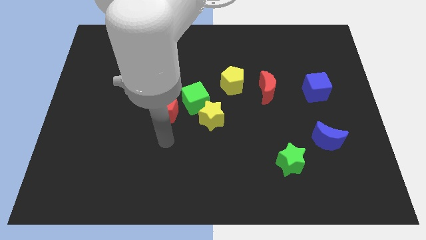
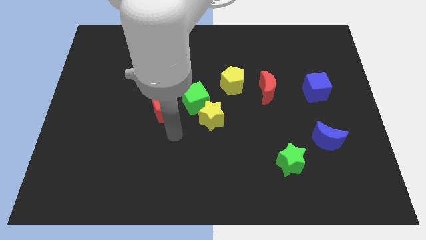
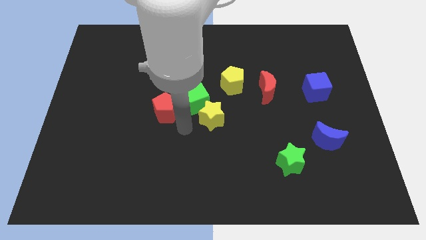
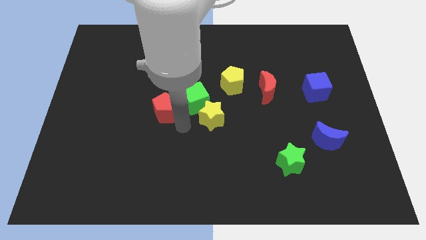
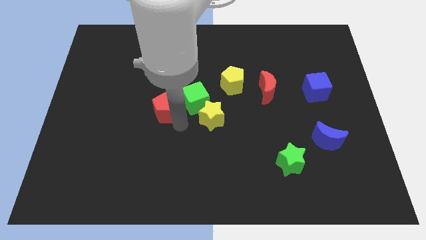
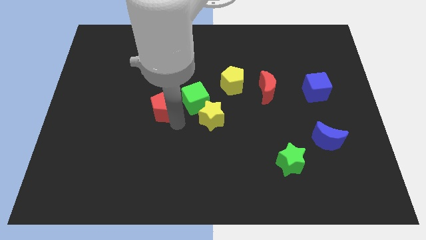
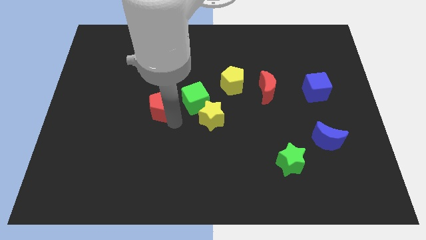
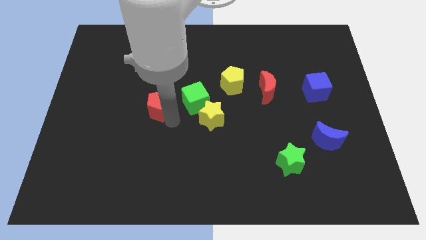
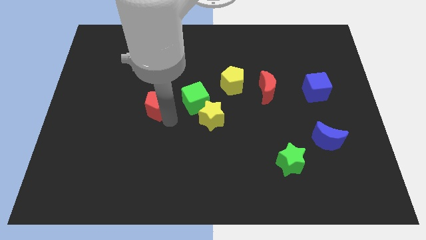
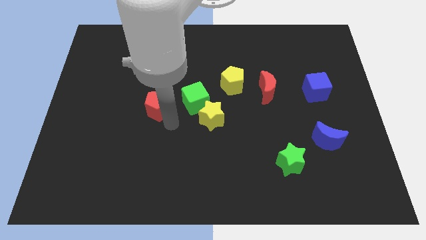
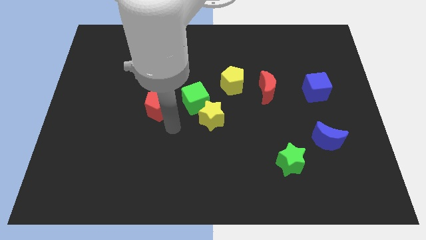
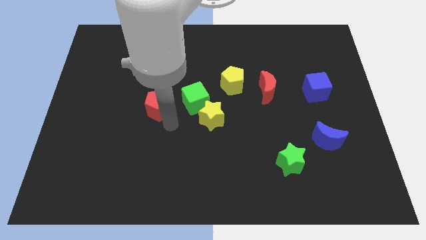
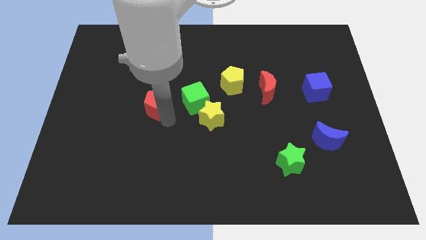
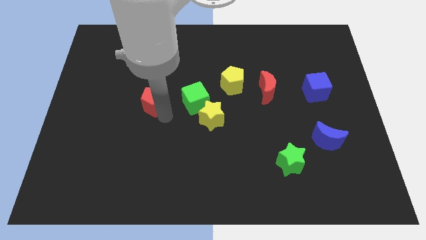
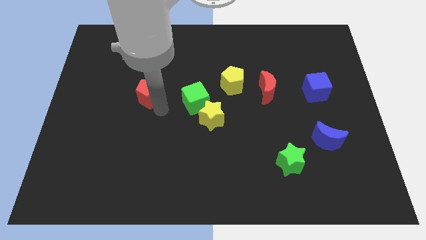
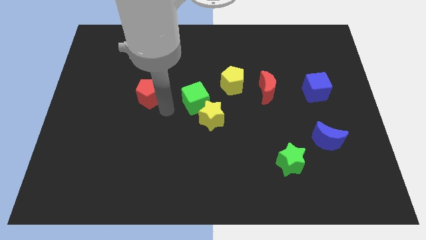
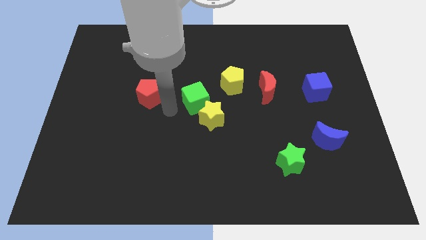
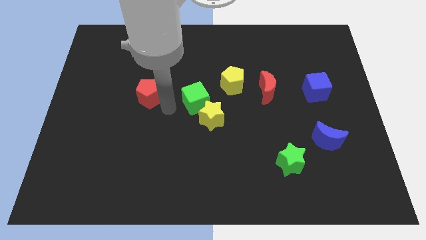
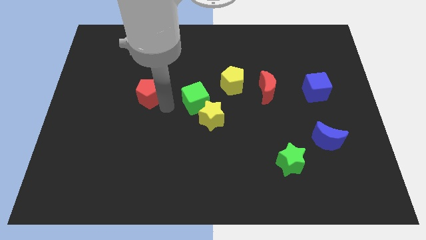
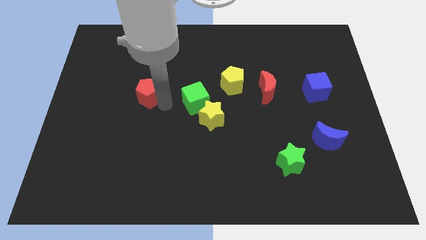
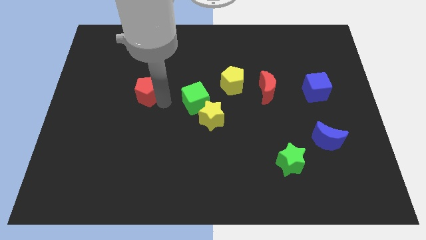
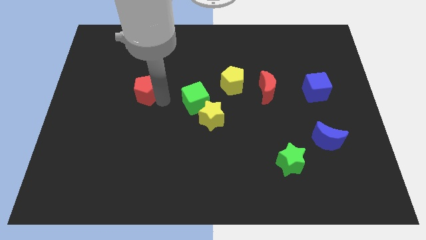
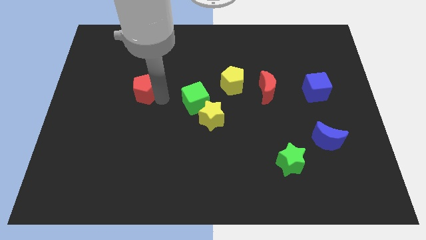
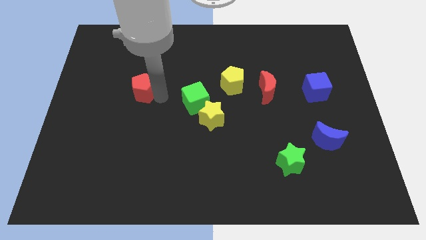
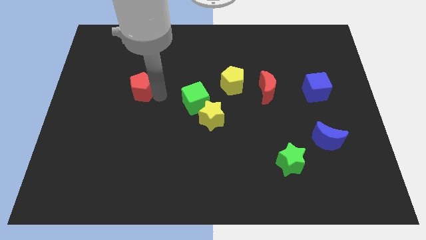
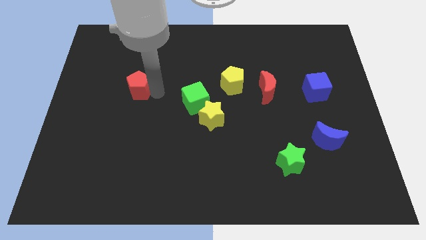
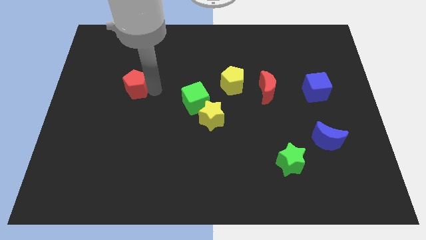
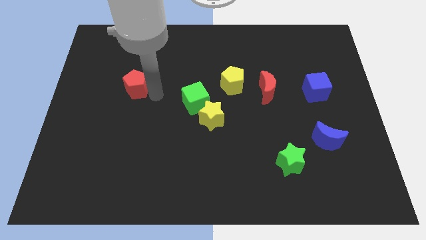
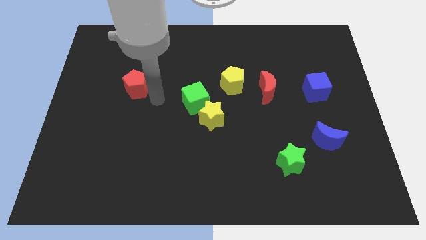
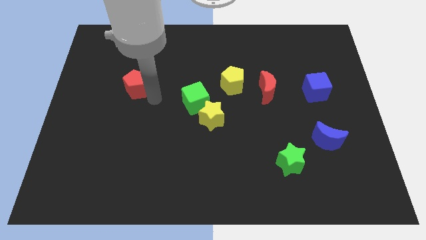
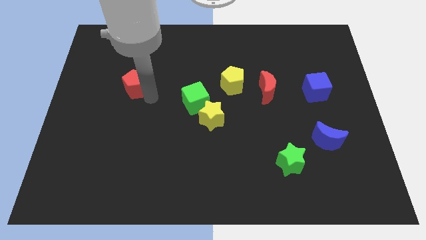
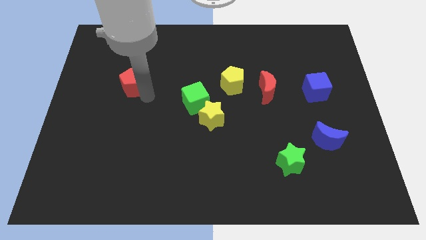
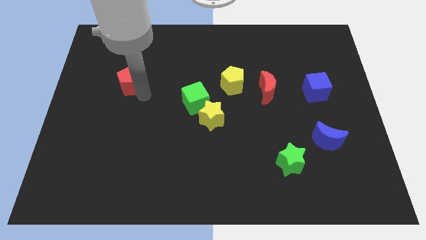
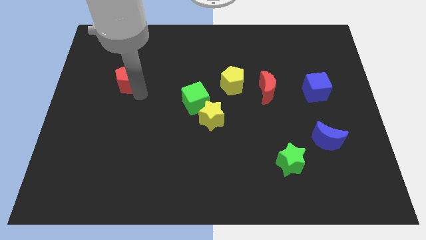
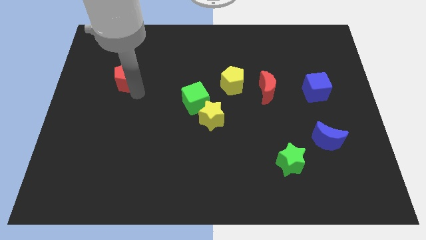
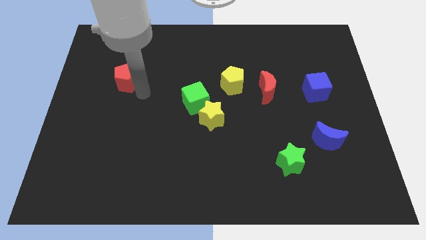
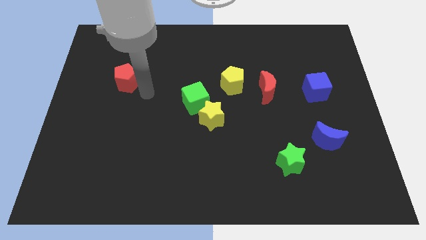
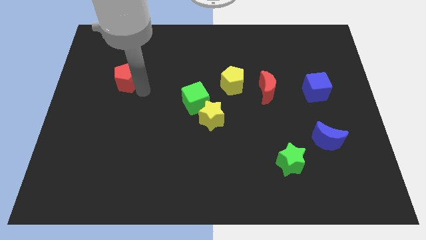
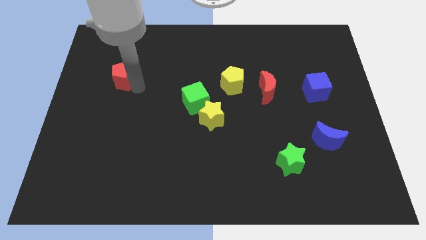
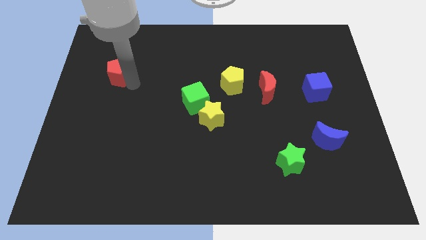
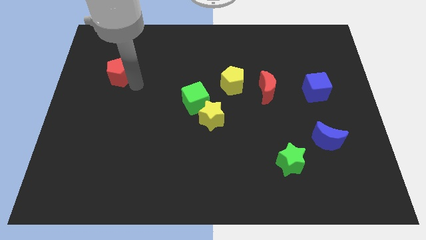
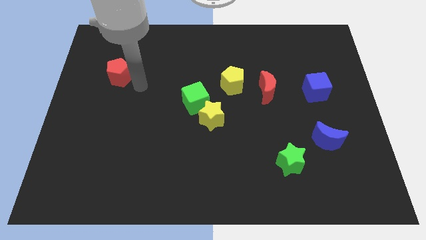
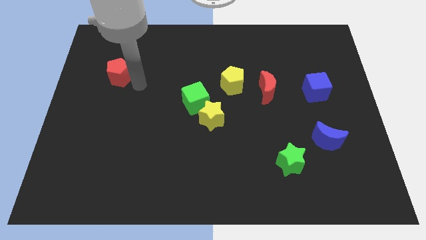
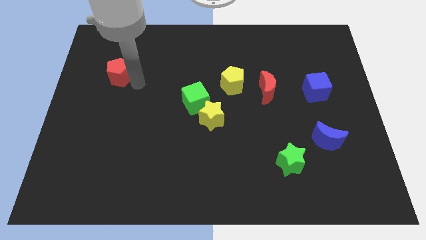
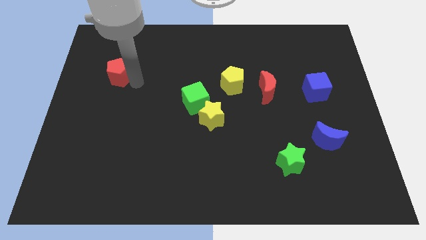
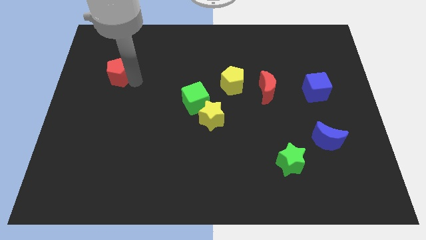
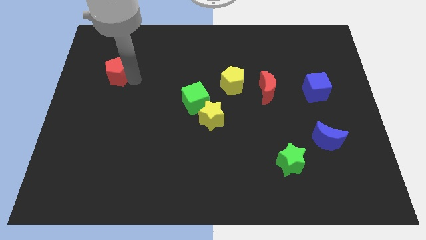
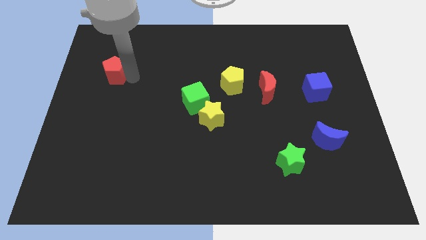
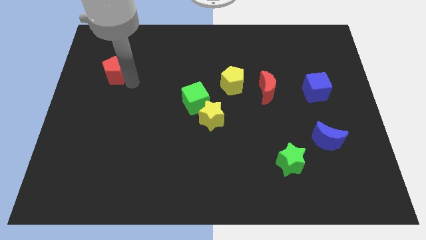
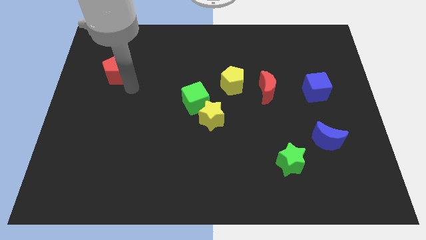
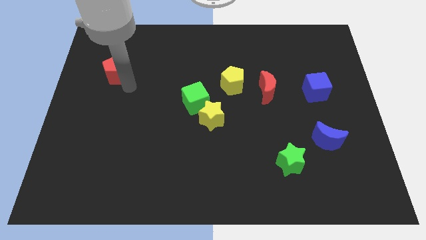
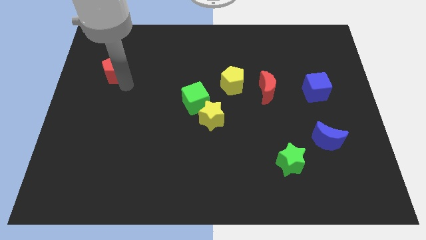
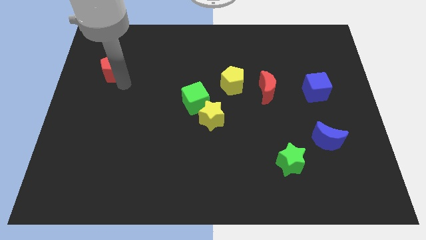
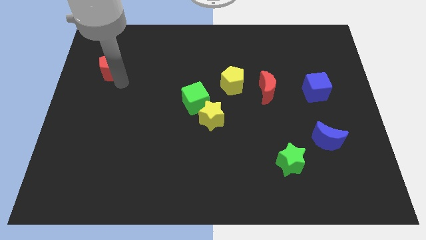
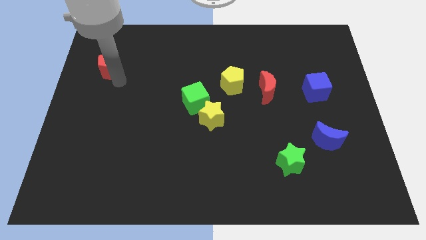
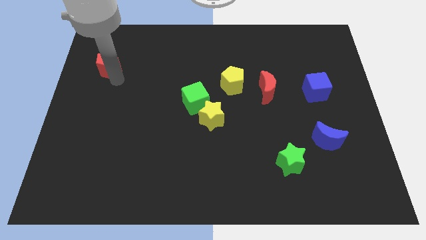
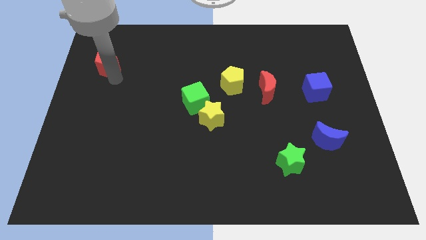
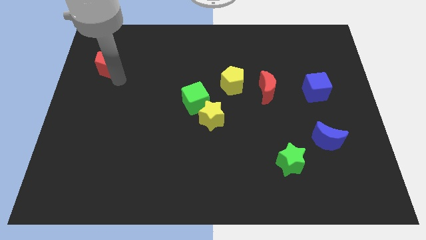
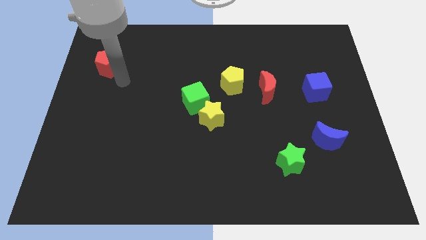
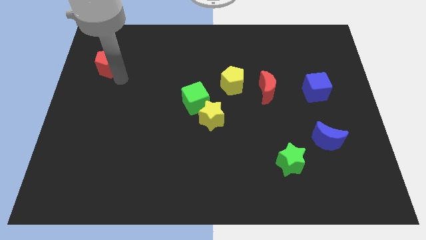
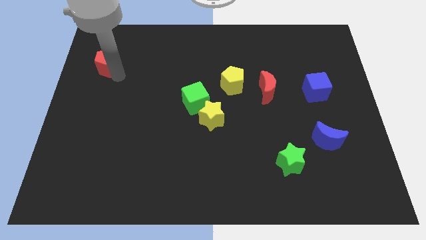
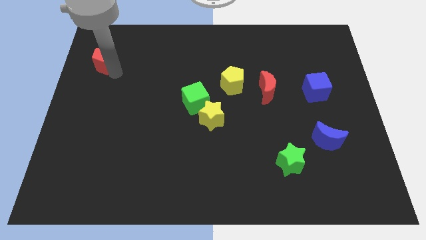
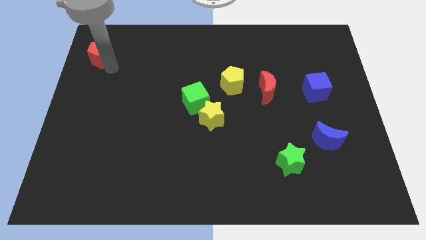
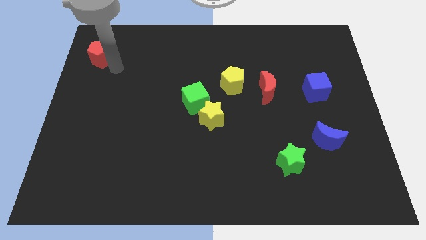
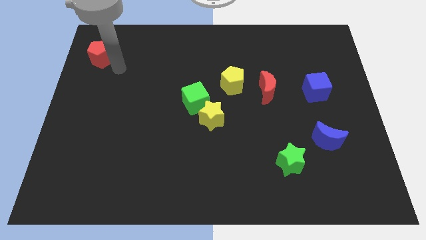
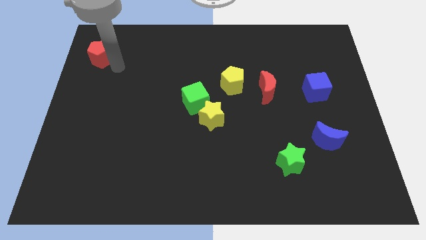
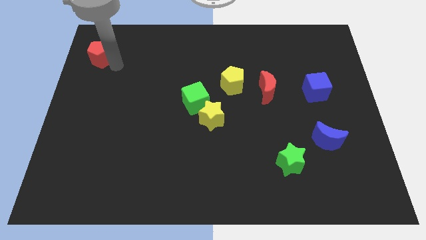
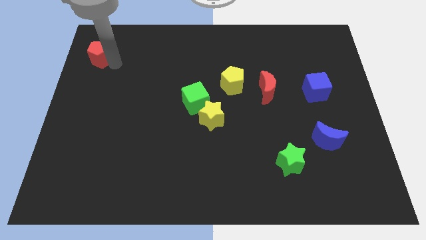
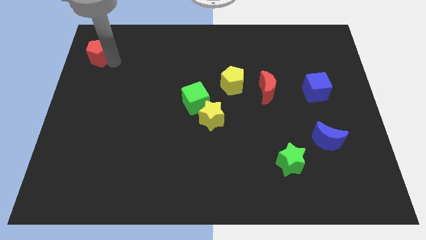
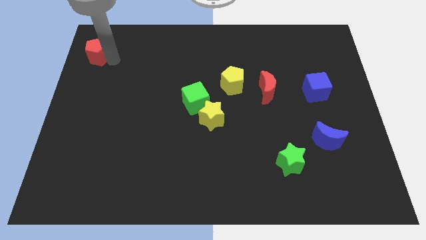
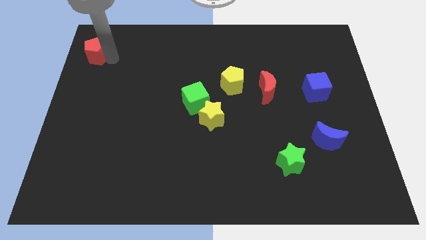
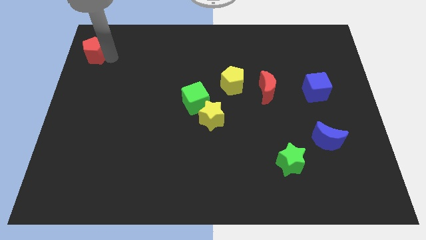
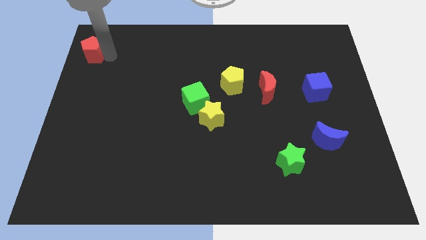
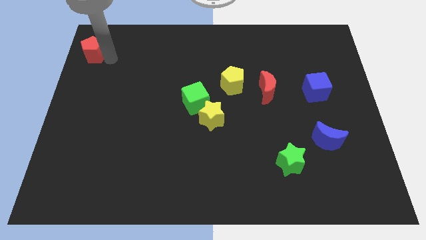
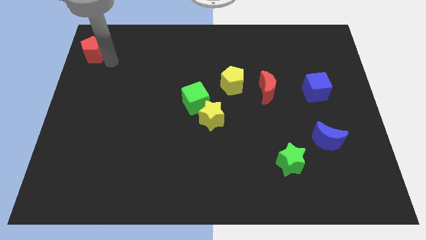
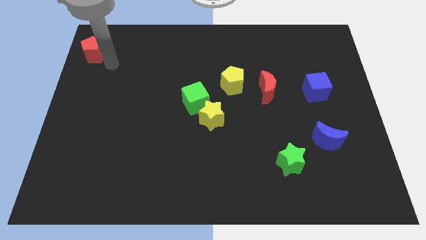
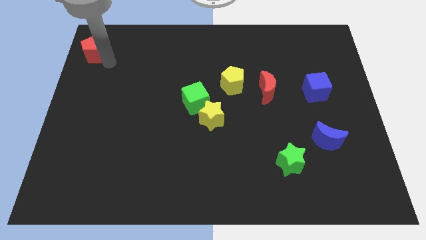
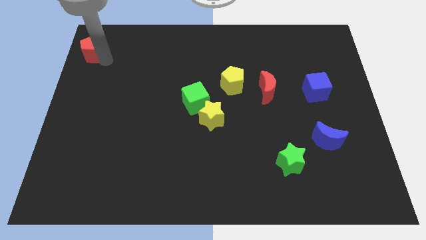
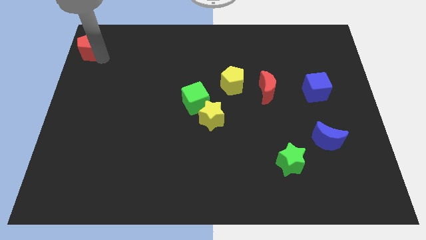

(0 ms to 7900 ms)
slide the red pentagon to the top left of the board
